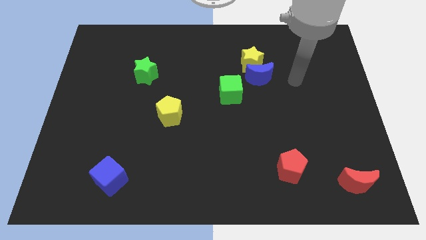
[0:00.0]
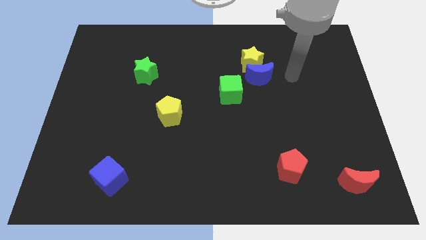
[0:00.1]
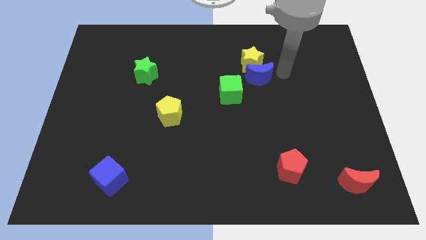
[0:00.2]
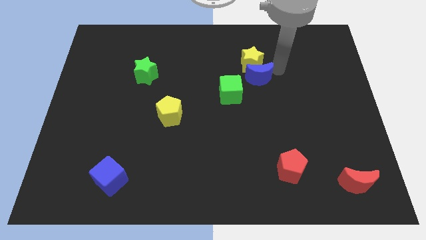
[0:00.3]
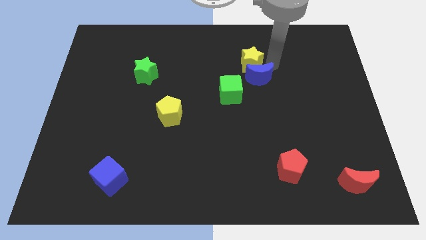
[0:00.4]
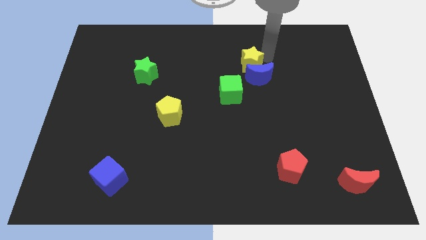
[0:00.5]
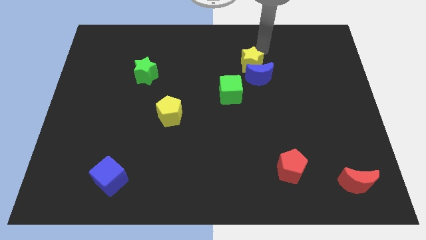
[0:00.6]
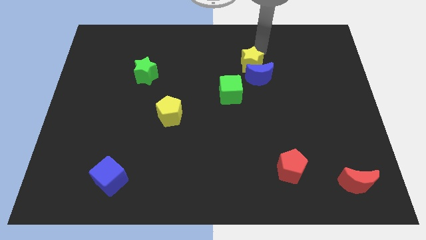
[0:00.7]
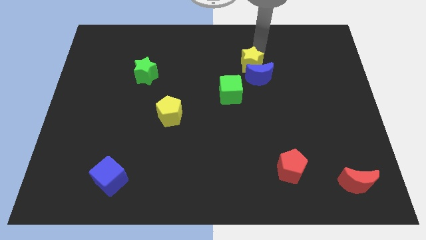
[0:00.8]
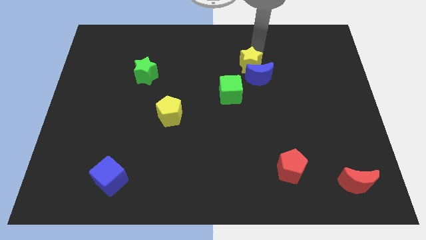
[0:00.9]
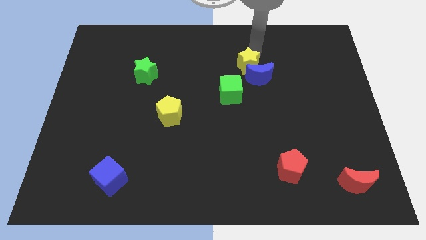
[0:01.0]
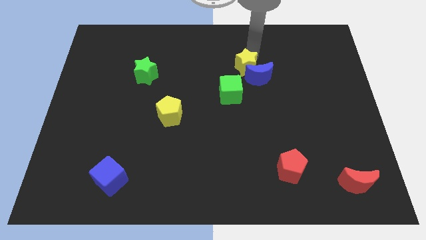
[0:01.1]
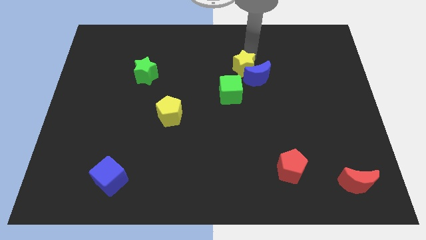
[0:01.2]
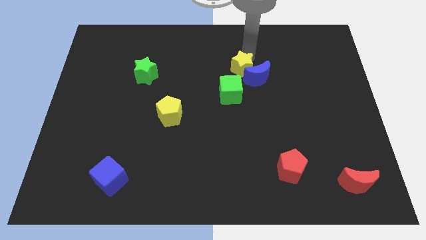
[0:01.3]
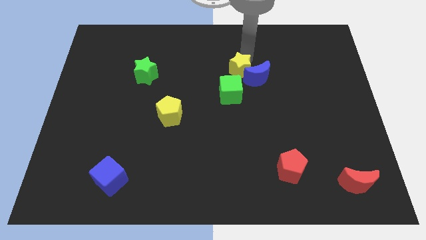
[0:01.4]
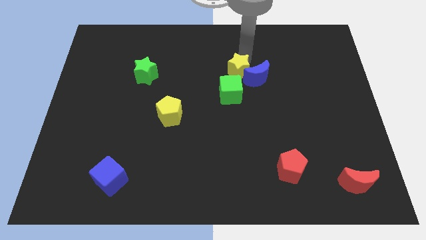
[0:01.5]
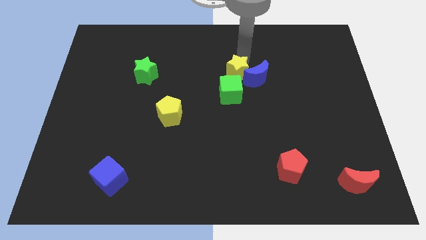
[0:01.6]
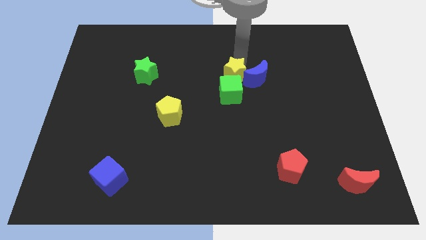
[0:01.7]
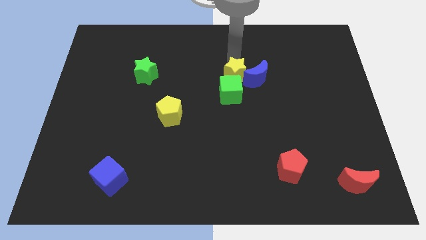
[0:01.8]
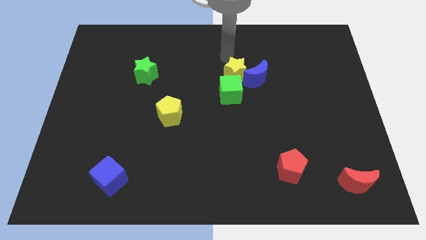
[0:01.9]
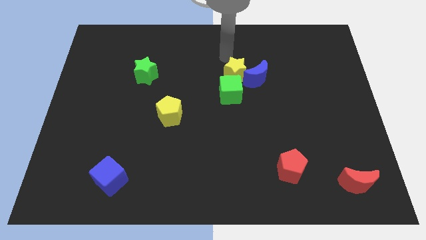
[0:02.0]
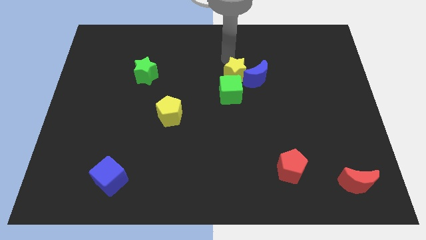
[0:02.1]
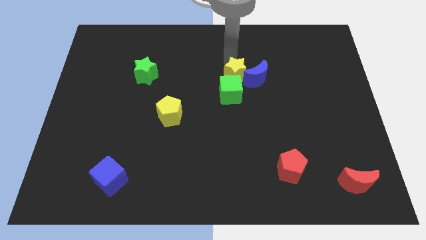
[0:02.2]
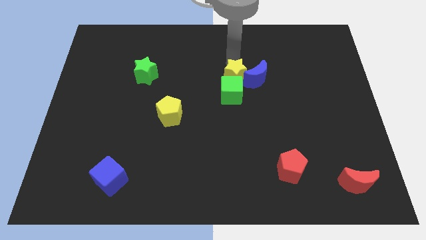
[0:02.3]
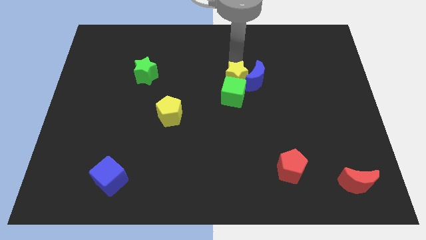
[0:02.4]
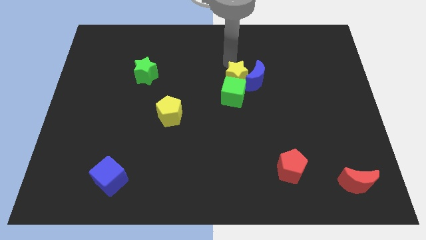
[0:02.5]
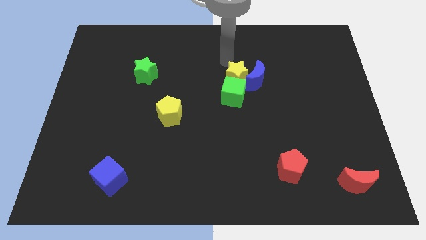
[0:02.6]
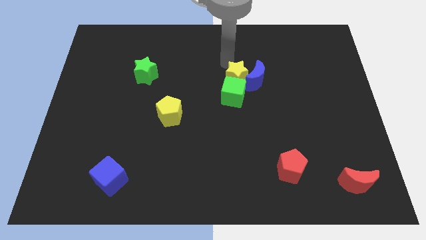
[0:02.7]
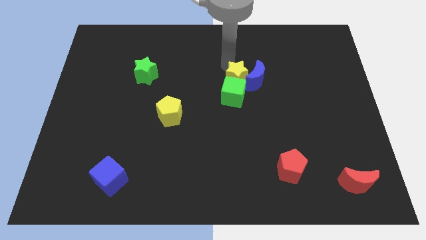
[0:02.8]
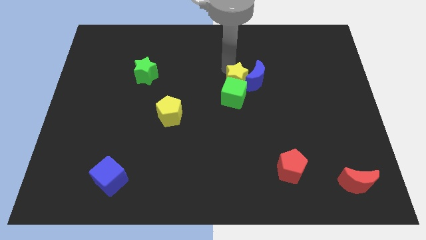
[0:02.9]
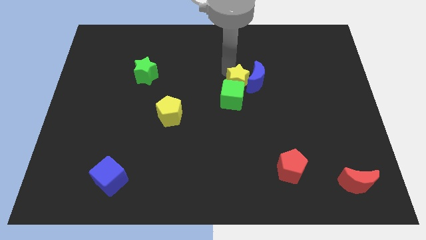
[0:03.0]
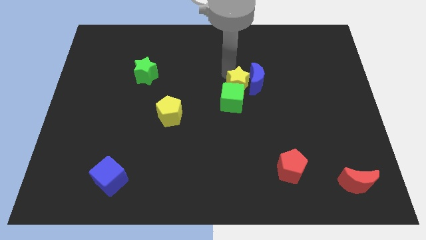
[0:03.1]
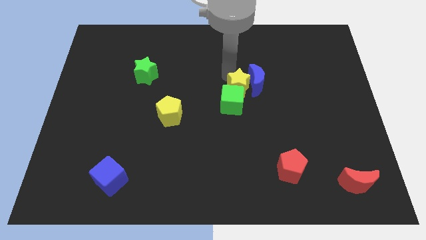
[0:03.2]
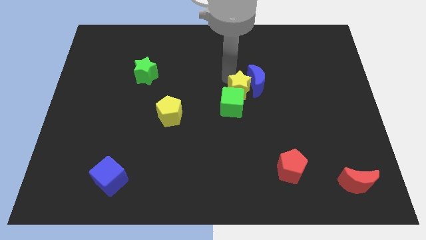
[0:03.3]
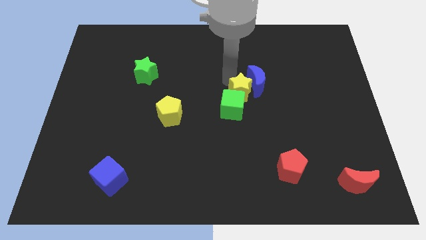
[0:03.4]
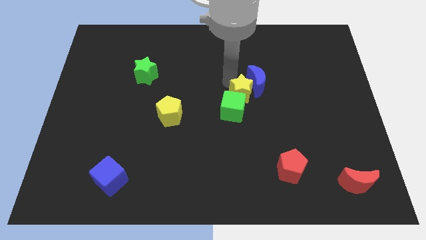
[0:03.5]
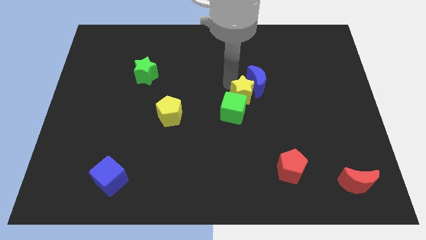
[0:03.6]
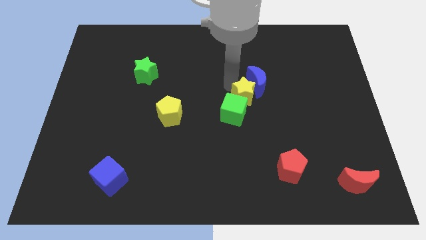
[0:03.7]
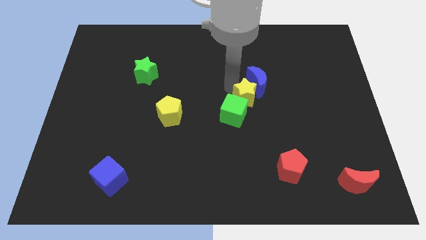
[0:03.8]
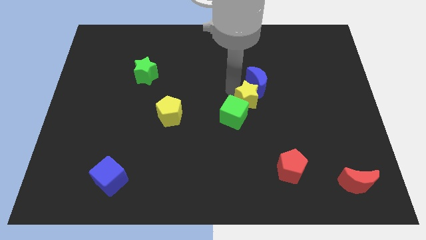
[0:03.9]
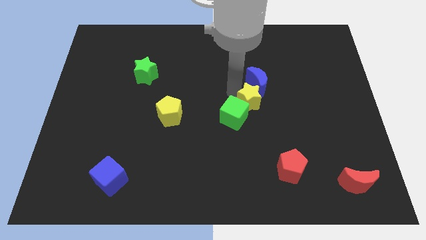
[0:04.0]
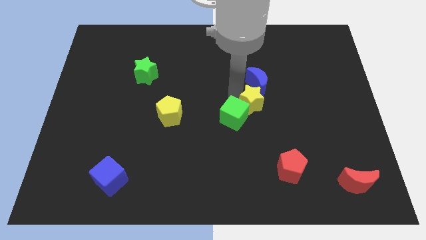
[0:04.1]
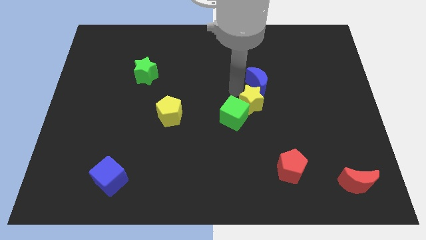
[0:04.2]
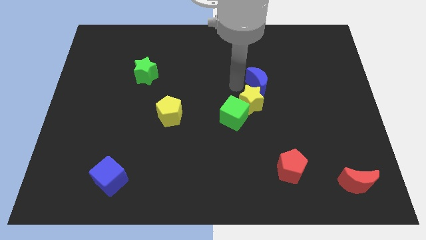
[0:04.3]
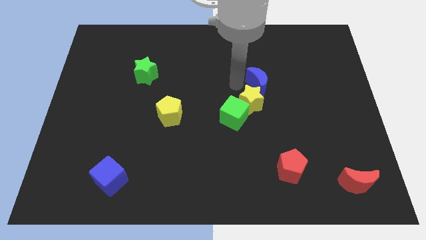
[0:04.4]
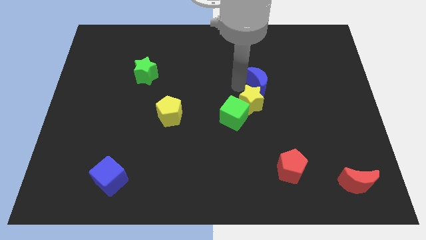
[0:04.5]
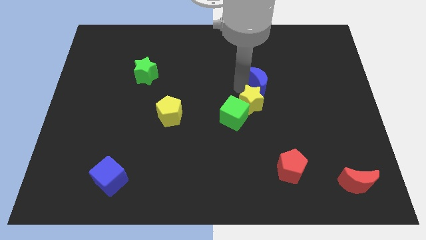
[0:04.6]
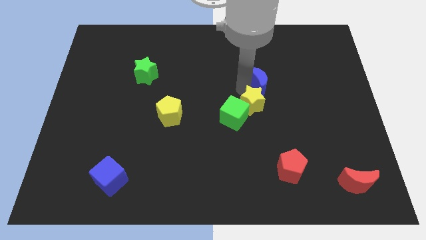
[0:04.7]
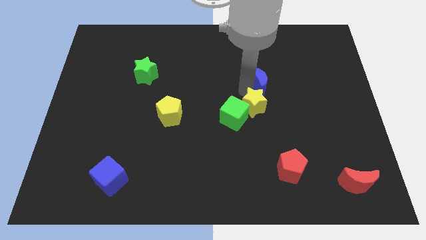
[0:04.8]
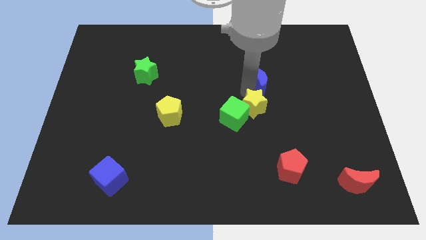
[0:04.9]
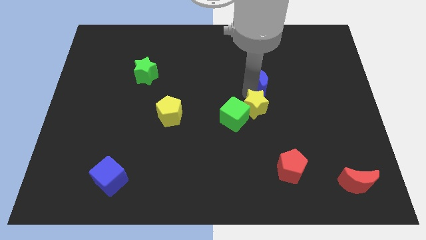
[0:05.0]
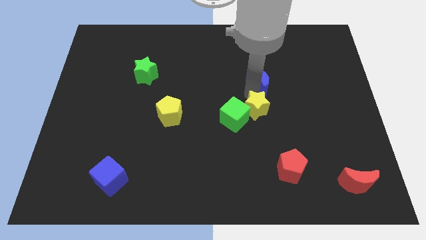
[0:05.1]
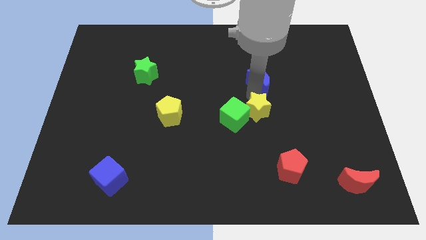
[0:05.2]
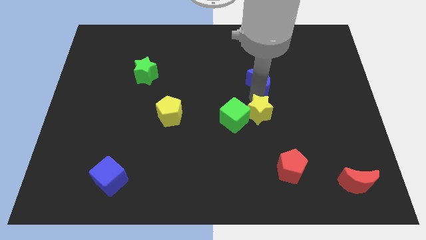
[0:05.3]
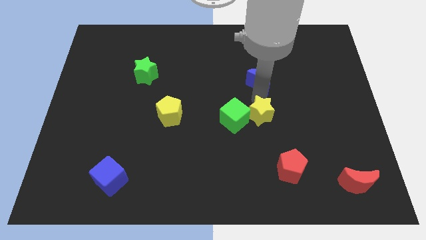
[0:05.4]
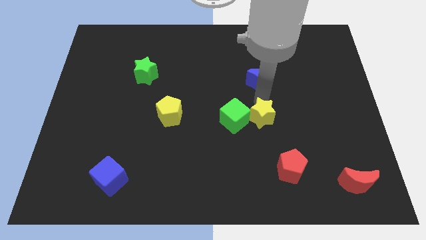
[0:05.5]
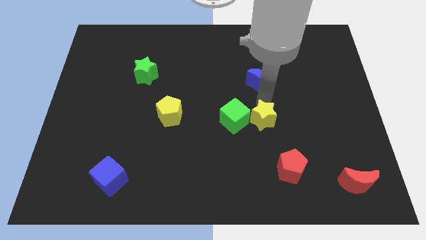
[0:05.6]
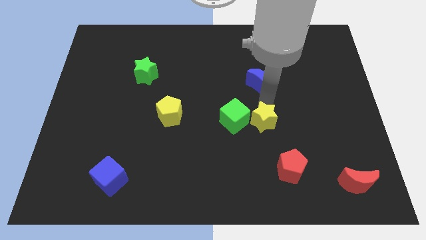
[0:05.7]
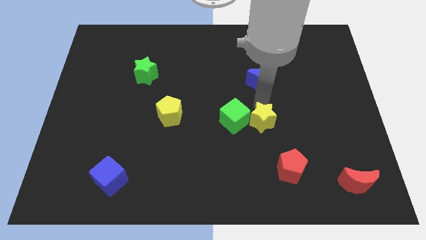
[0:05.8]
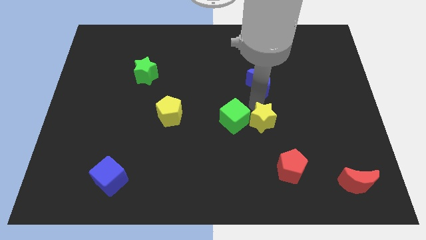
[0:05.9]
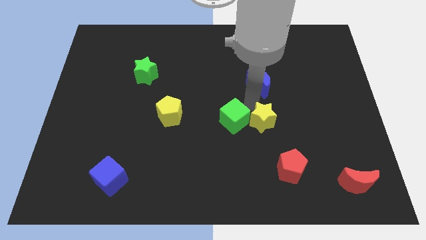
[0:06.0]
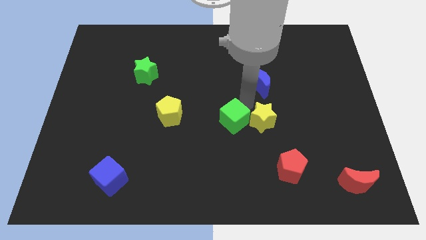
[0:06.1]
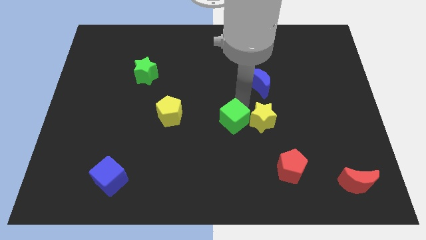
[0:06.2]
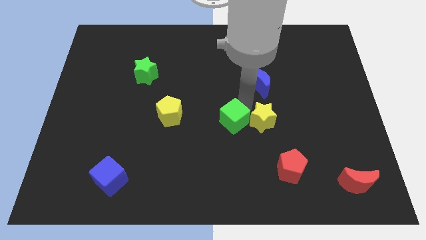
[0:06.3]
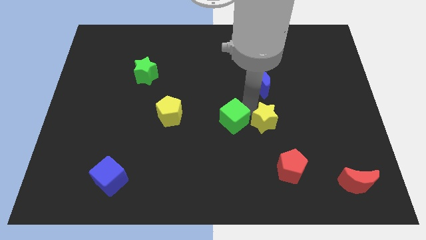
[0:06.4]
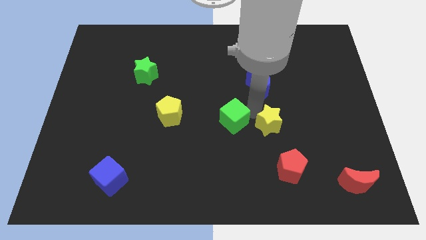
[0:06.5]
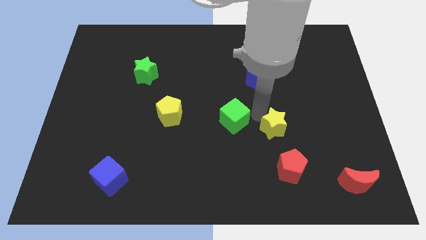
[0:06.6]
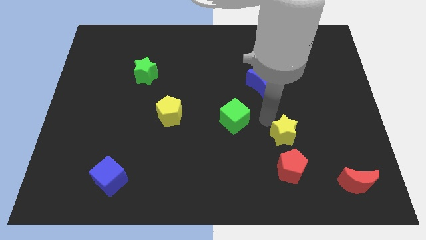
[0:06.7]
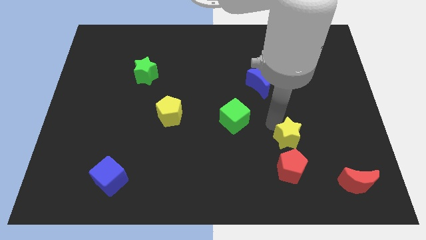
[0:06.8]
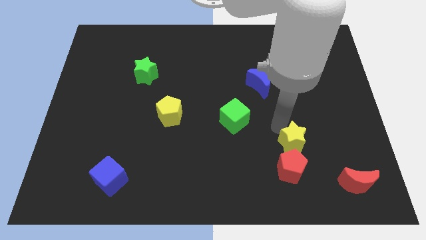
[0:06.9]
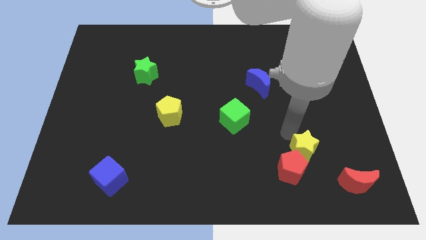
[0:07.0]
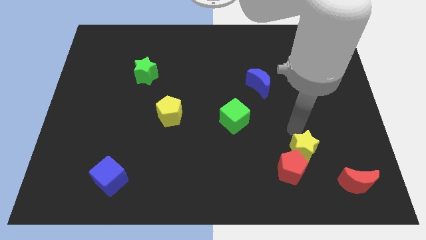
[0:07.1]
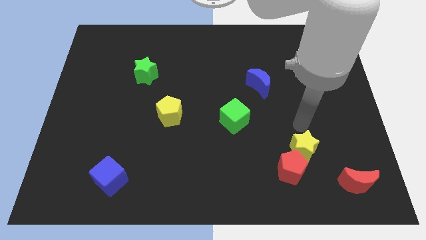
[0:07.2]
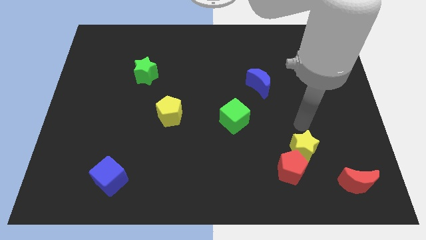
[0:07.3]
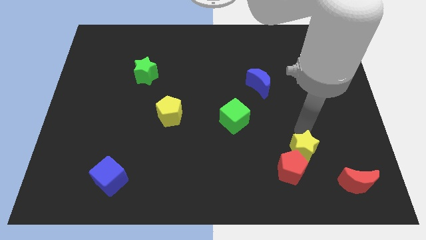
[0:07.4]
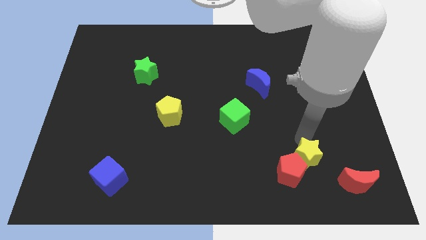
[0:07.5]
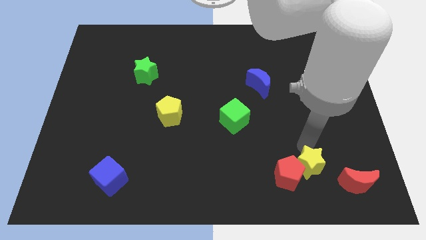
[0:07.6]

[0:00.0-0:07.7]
slide the yellow star left of the red moon
